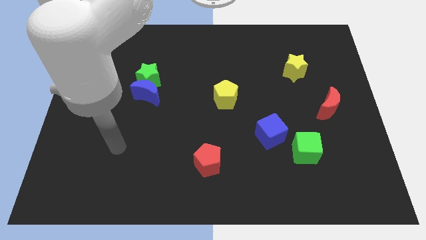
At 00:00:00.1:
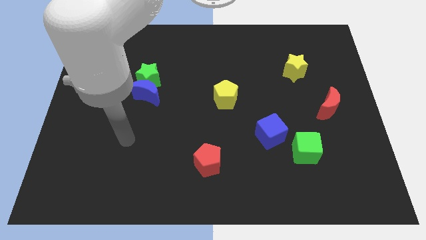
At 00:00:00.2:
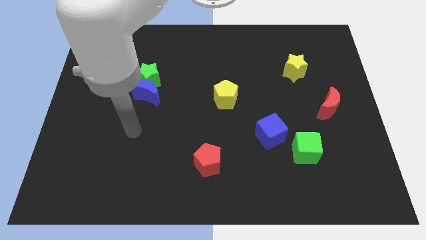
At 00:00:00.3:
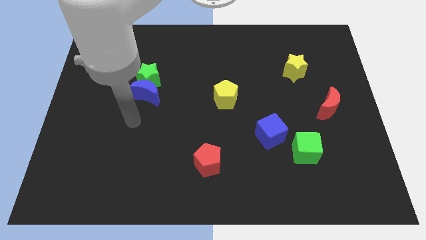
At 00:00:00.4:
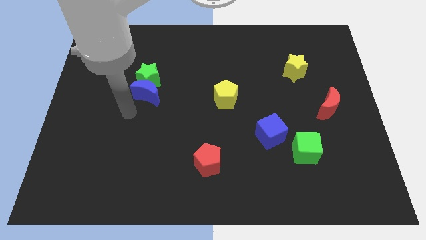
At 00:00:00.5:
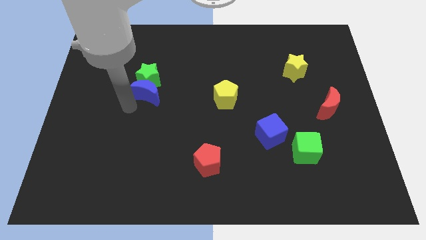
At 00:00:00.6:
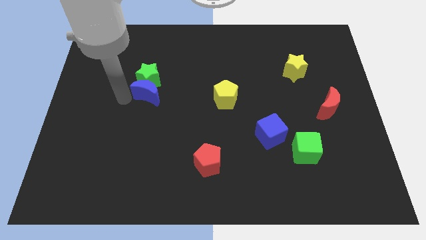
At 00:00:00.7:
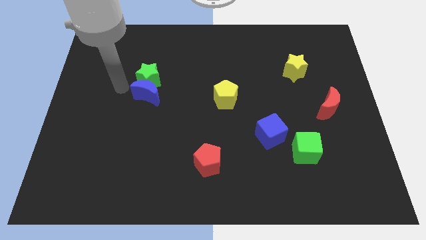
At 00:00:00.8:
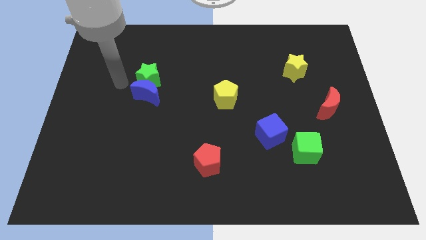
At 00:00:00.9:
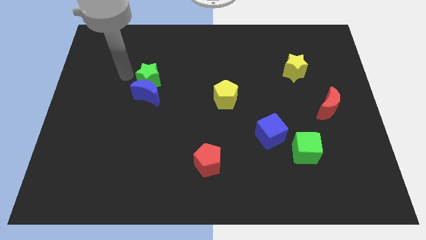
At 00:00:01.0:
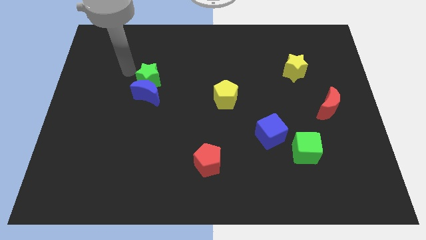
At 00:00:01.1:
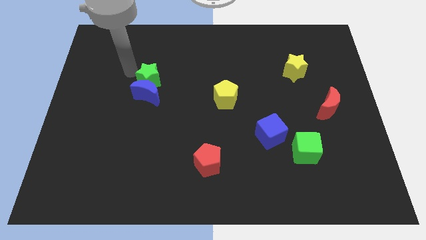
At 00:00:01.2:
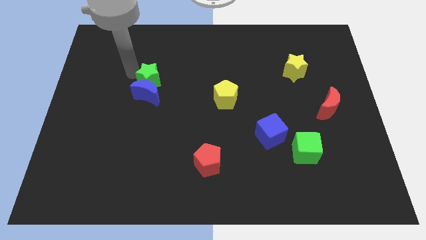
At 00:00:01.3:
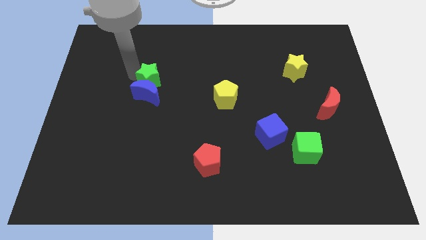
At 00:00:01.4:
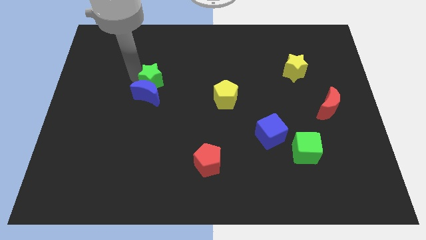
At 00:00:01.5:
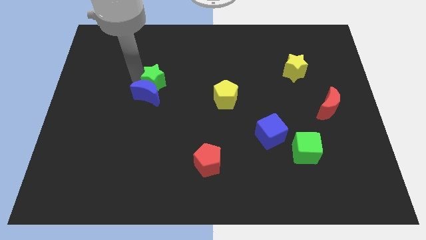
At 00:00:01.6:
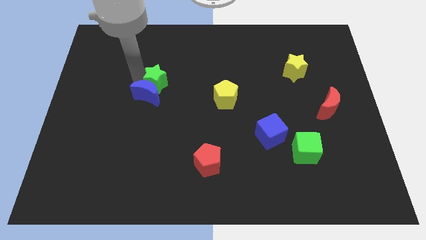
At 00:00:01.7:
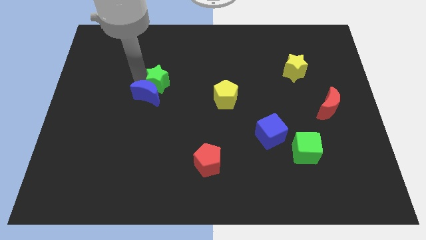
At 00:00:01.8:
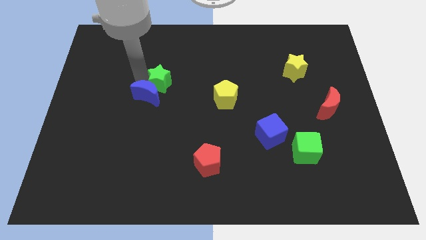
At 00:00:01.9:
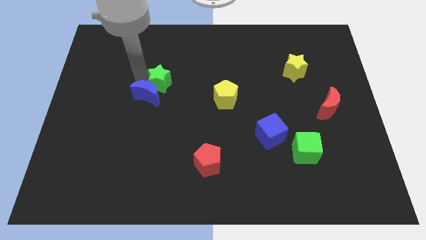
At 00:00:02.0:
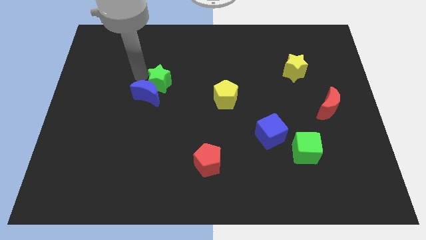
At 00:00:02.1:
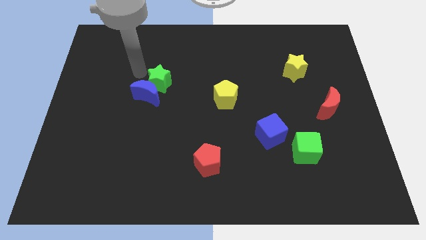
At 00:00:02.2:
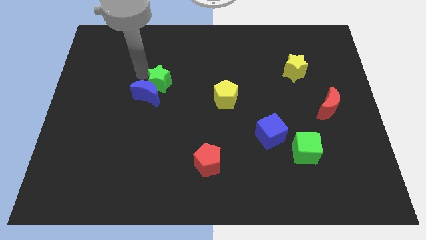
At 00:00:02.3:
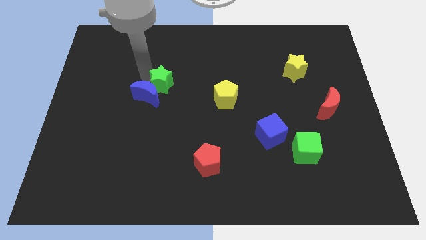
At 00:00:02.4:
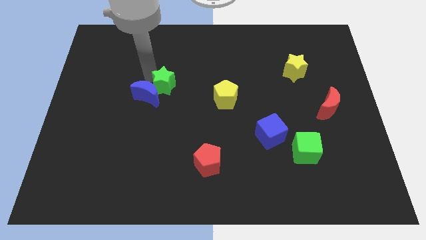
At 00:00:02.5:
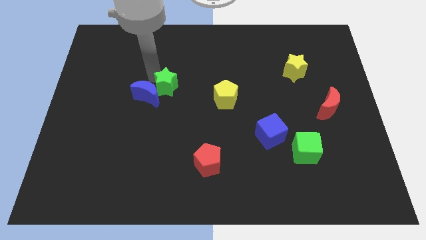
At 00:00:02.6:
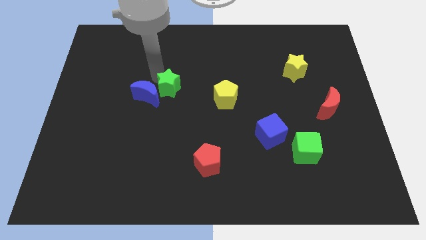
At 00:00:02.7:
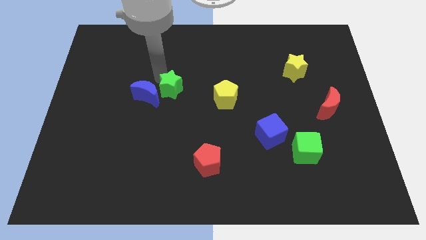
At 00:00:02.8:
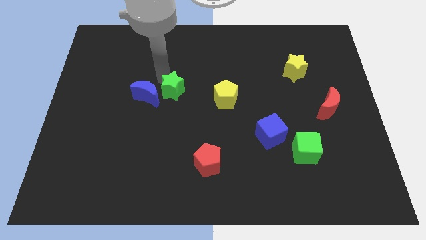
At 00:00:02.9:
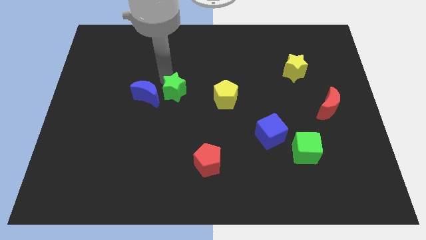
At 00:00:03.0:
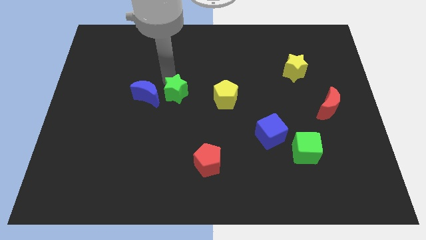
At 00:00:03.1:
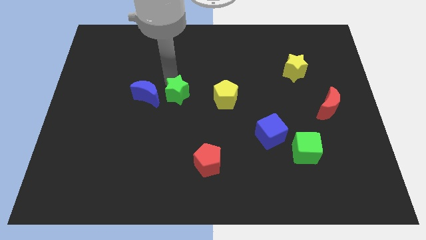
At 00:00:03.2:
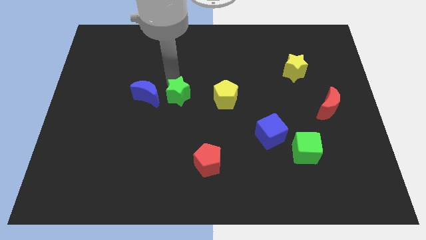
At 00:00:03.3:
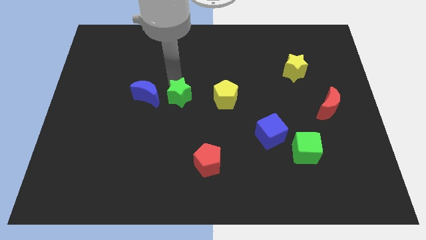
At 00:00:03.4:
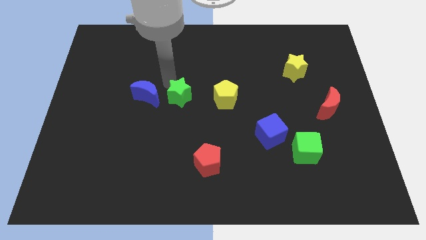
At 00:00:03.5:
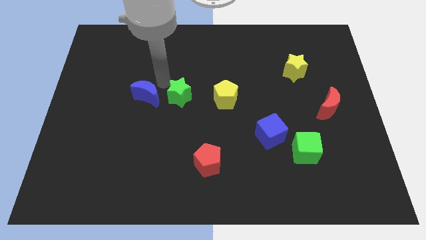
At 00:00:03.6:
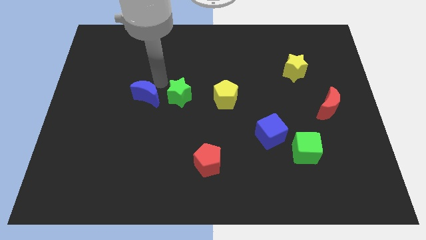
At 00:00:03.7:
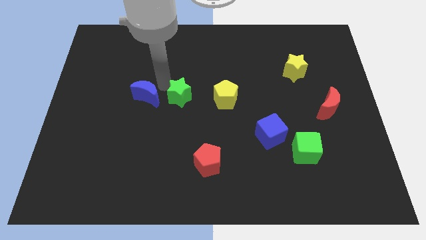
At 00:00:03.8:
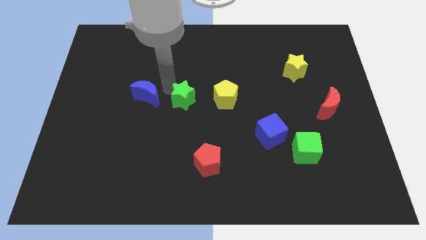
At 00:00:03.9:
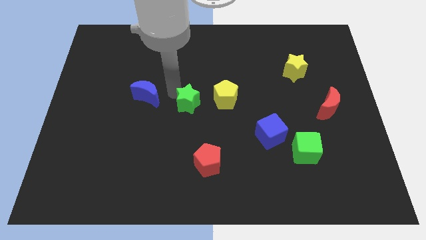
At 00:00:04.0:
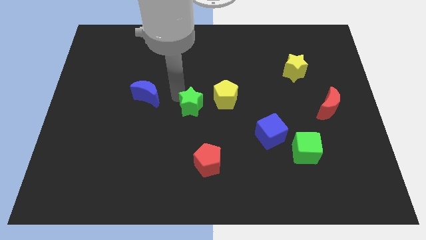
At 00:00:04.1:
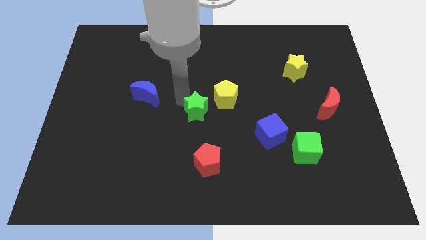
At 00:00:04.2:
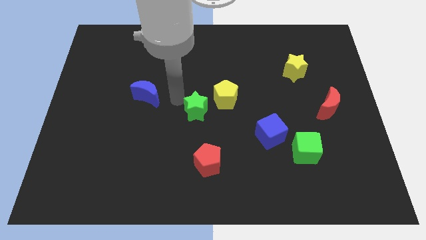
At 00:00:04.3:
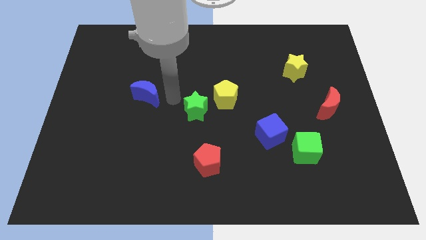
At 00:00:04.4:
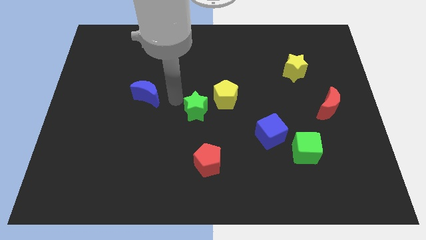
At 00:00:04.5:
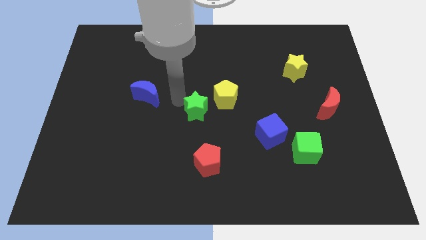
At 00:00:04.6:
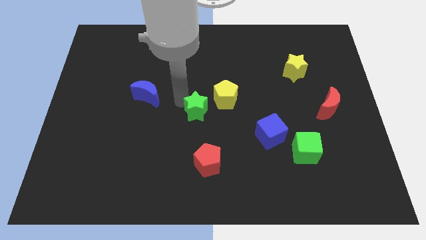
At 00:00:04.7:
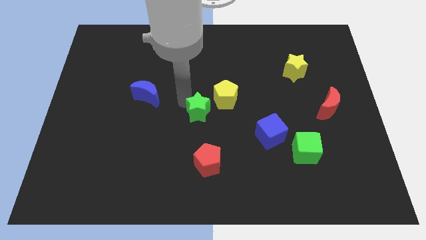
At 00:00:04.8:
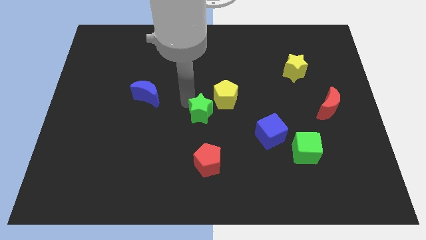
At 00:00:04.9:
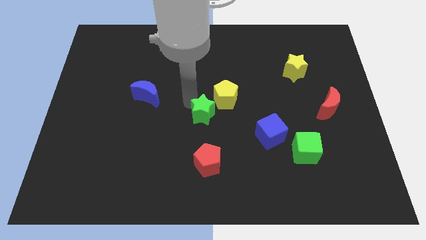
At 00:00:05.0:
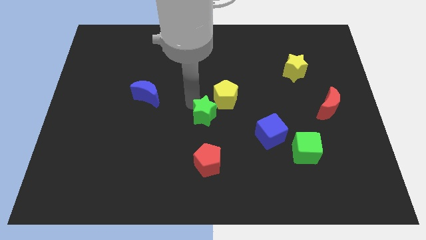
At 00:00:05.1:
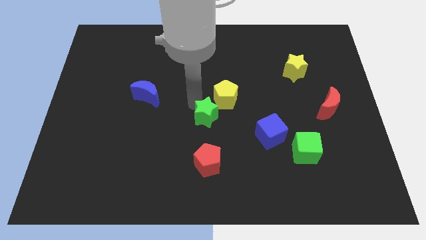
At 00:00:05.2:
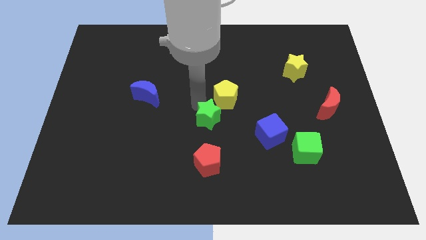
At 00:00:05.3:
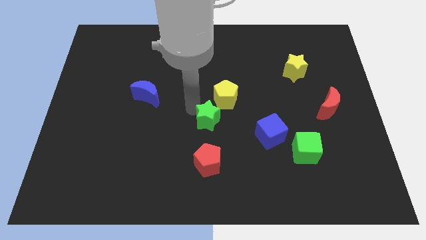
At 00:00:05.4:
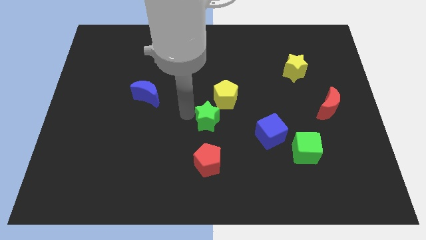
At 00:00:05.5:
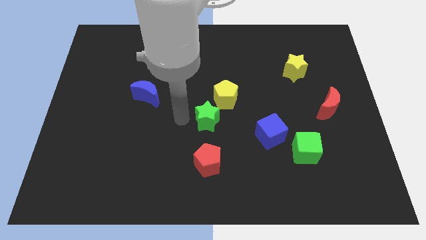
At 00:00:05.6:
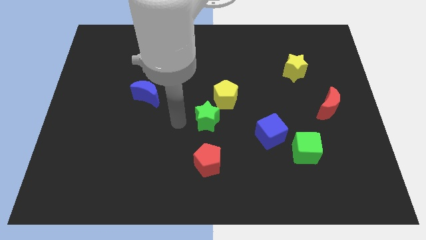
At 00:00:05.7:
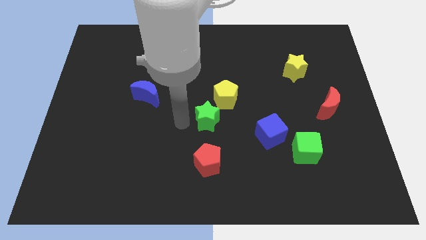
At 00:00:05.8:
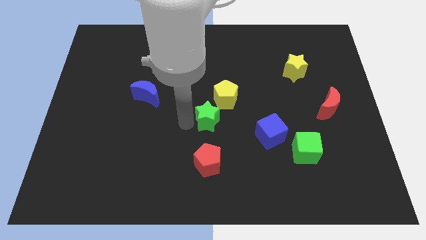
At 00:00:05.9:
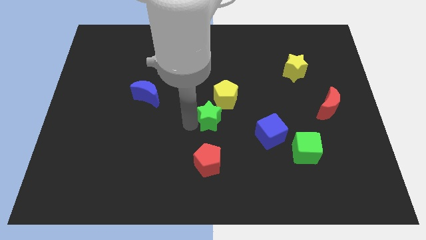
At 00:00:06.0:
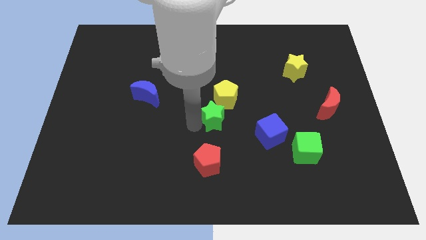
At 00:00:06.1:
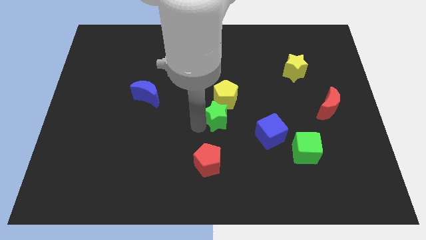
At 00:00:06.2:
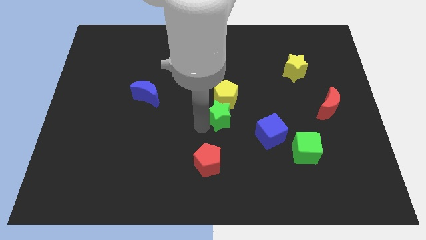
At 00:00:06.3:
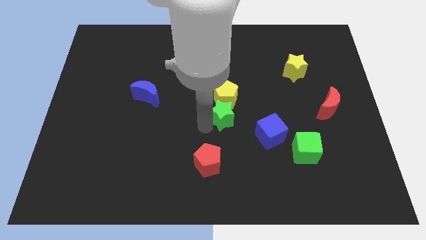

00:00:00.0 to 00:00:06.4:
put the green star to the bottom right of the yellow pentagon
